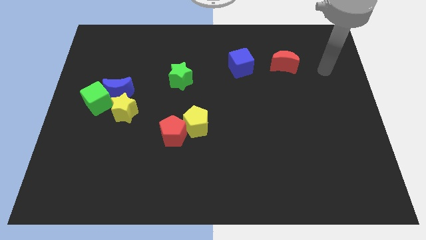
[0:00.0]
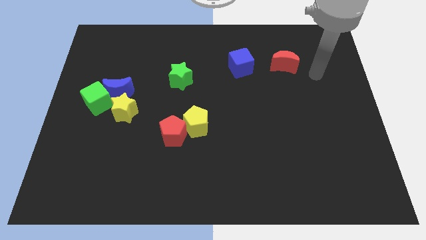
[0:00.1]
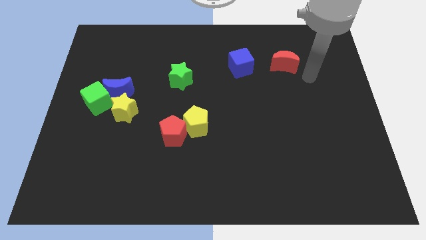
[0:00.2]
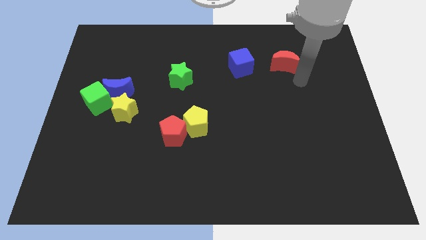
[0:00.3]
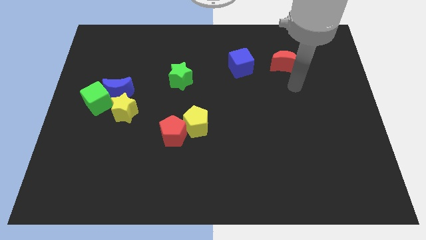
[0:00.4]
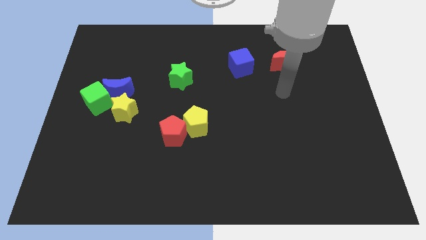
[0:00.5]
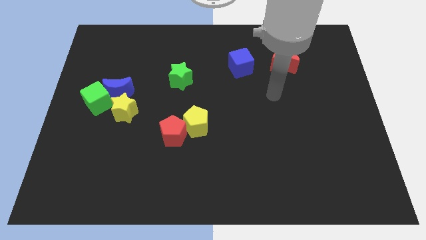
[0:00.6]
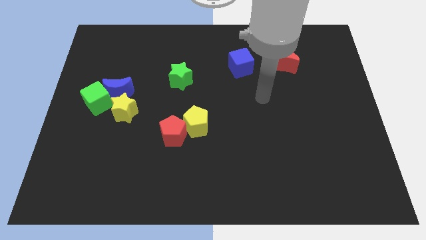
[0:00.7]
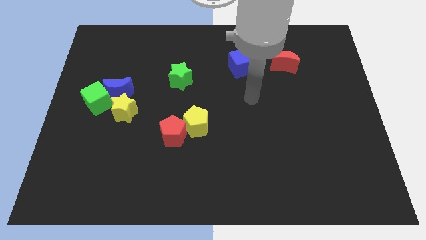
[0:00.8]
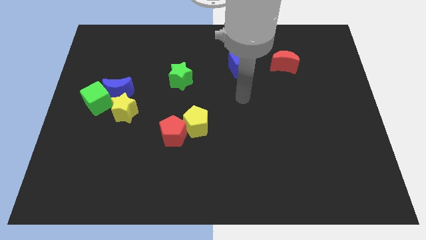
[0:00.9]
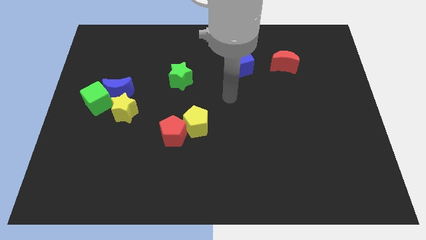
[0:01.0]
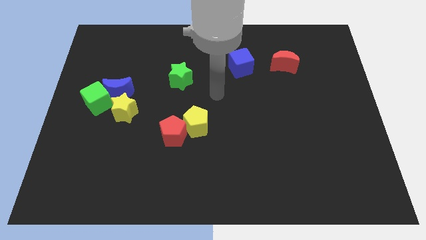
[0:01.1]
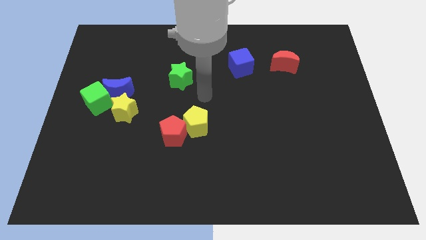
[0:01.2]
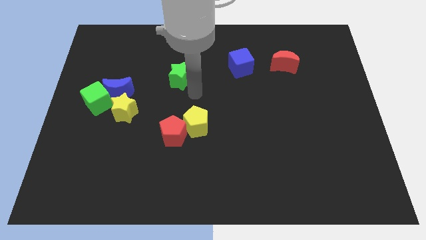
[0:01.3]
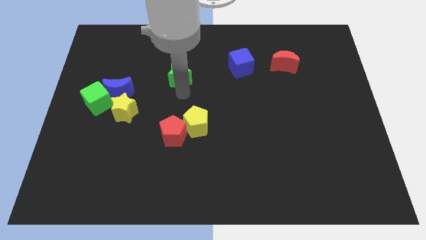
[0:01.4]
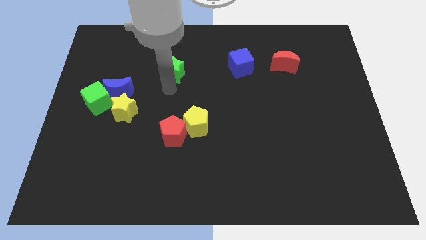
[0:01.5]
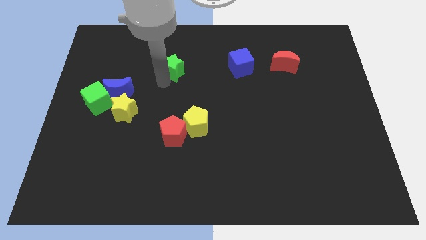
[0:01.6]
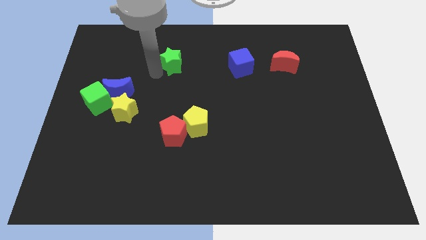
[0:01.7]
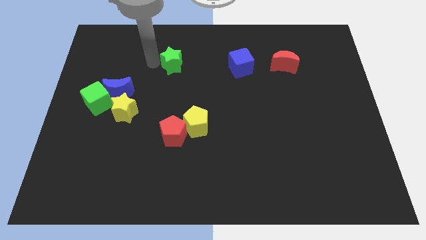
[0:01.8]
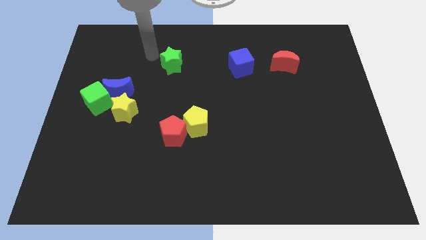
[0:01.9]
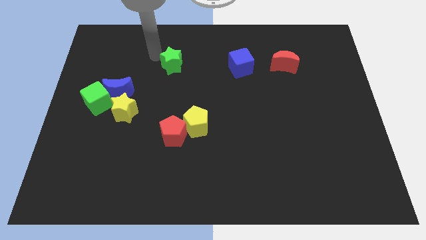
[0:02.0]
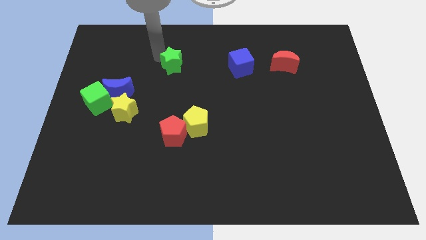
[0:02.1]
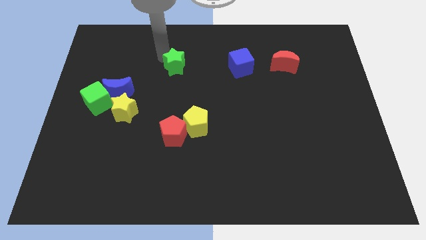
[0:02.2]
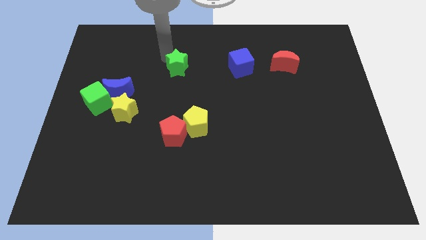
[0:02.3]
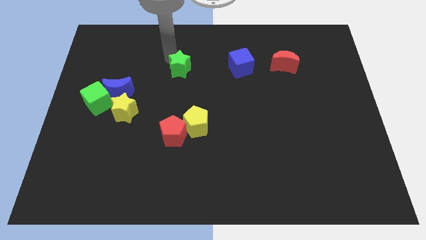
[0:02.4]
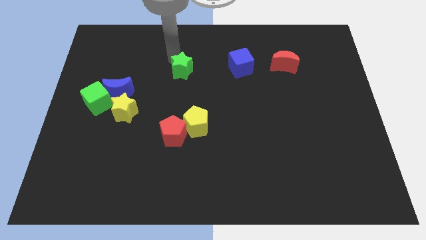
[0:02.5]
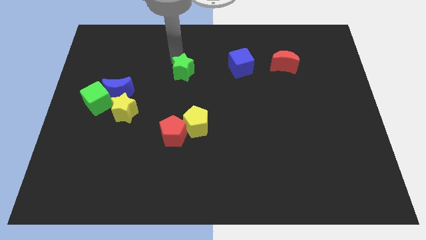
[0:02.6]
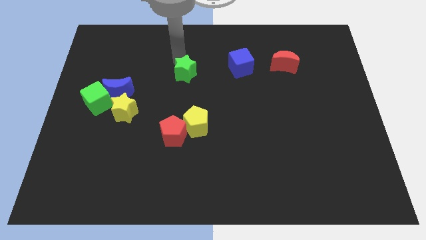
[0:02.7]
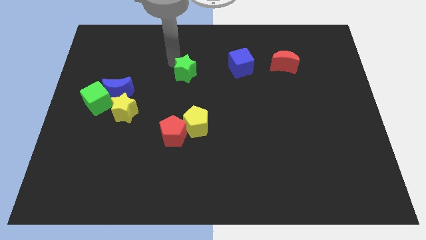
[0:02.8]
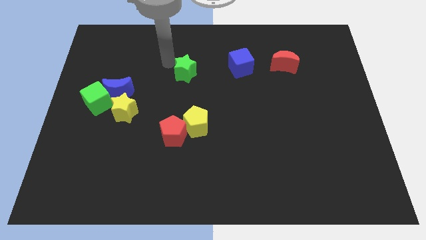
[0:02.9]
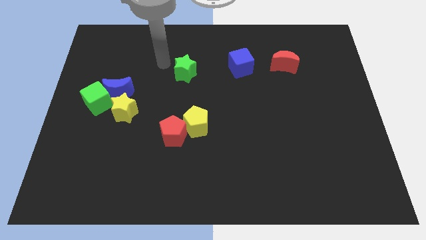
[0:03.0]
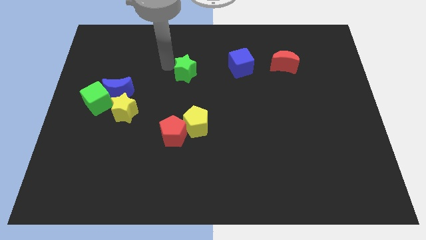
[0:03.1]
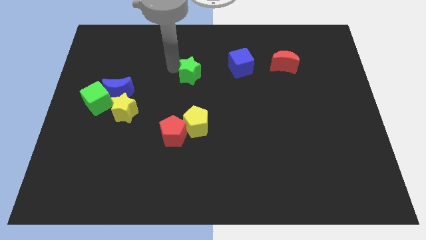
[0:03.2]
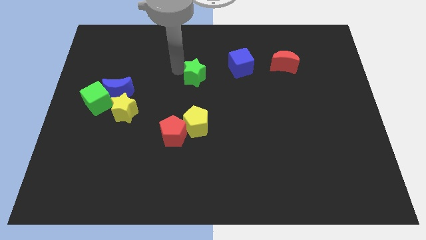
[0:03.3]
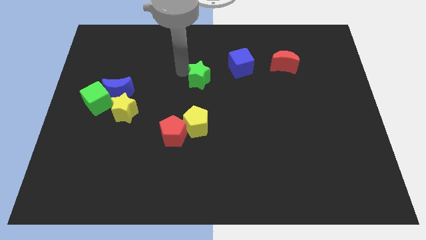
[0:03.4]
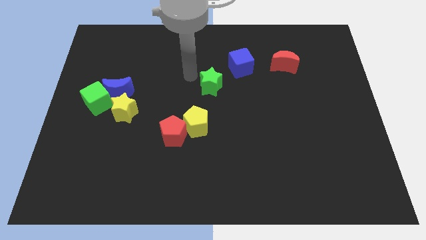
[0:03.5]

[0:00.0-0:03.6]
move the green star right a little

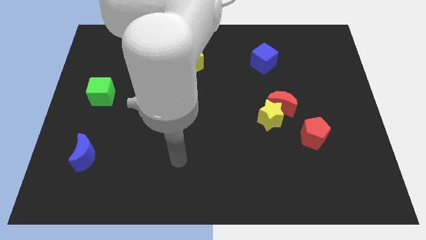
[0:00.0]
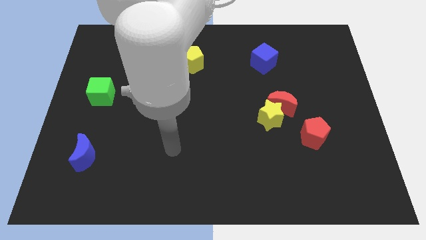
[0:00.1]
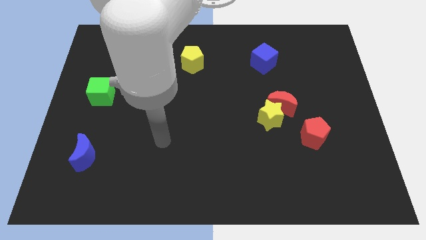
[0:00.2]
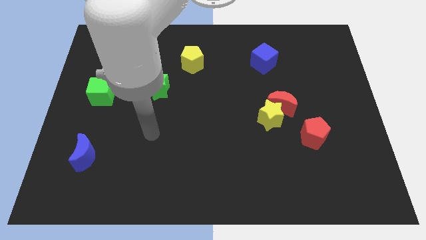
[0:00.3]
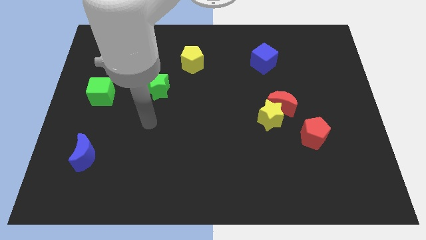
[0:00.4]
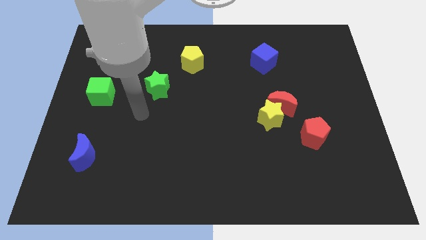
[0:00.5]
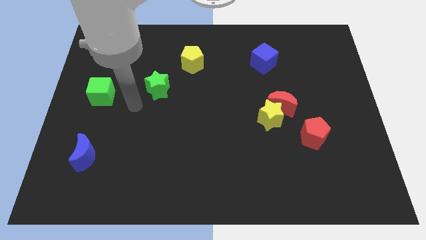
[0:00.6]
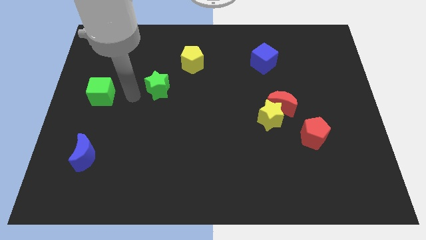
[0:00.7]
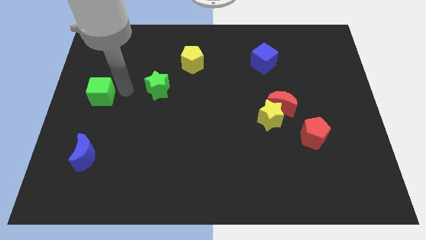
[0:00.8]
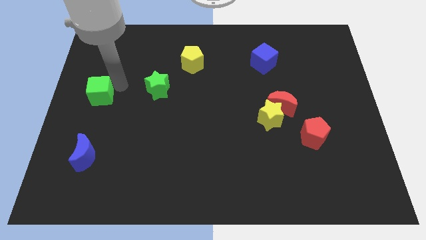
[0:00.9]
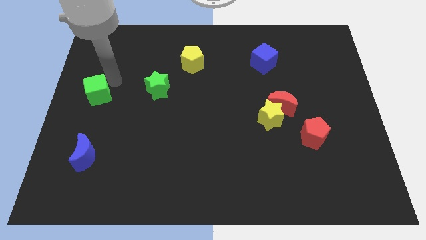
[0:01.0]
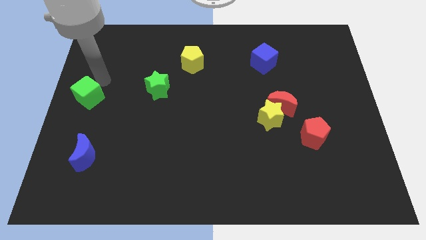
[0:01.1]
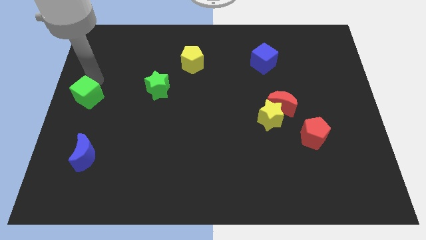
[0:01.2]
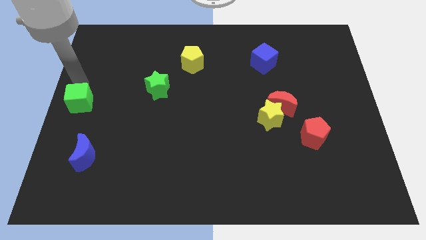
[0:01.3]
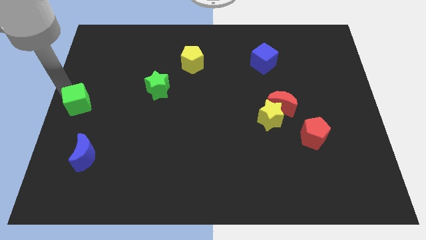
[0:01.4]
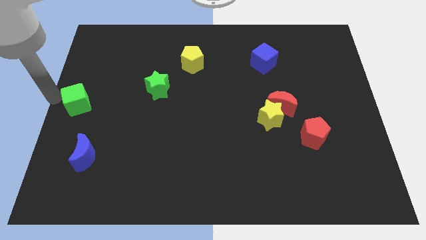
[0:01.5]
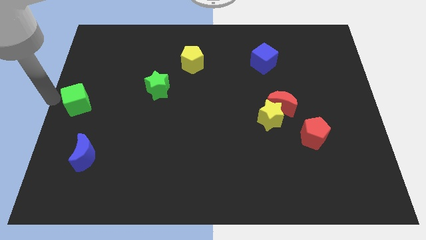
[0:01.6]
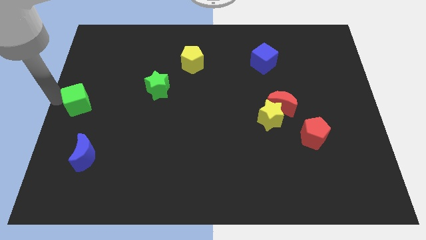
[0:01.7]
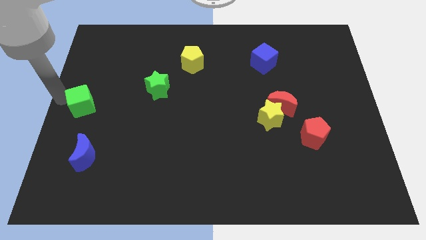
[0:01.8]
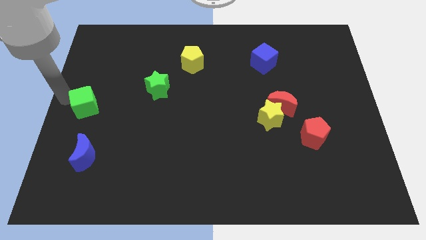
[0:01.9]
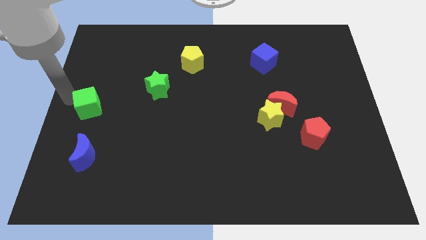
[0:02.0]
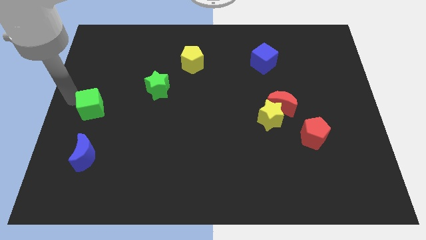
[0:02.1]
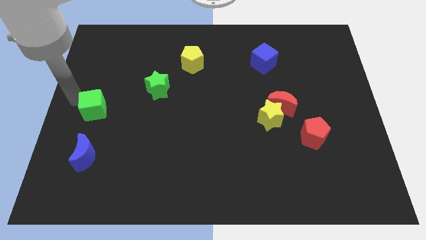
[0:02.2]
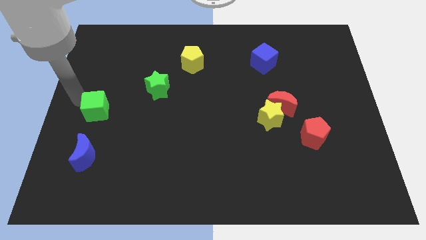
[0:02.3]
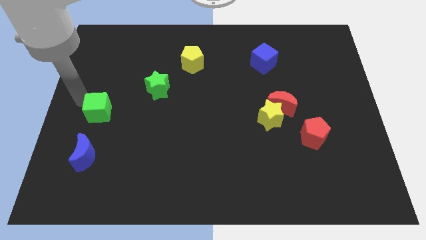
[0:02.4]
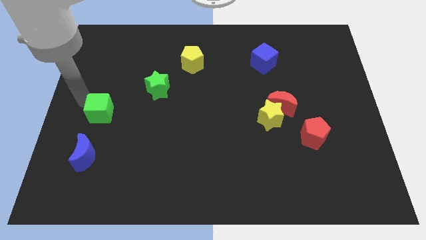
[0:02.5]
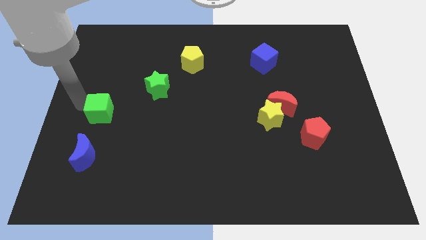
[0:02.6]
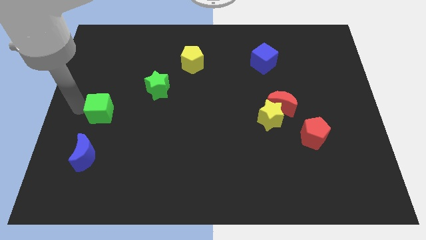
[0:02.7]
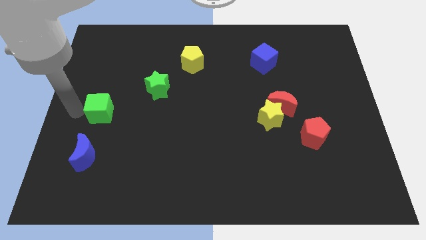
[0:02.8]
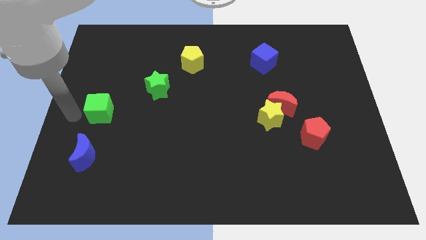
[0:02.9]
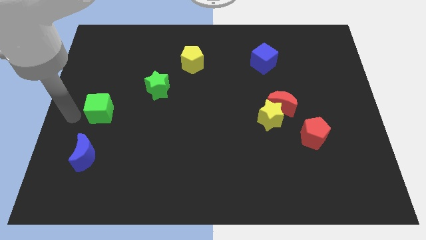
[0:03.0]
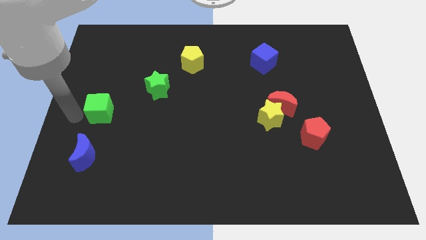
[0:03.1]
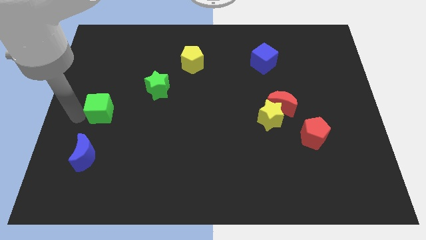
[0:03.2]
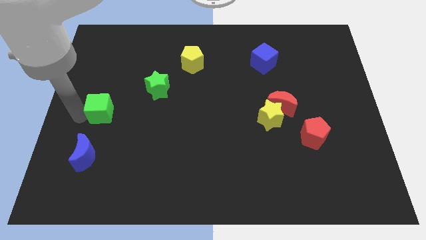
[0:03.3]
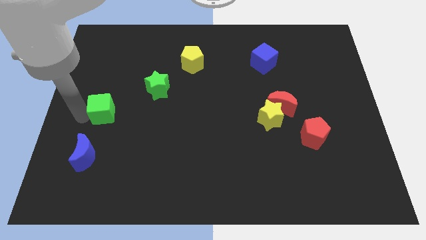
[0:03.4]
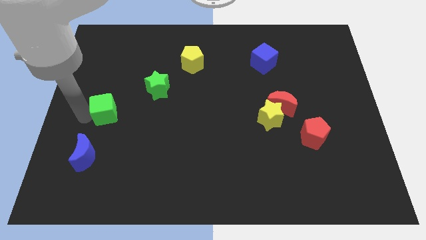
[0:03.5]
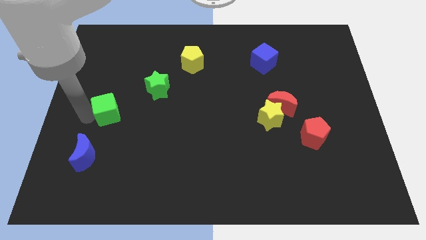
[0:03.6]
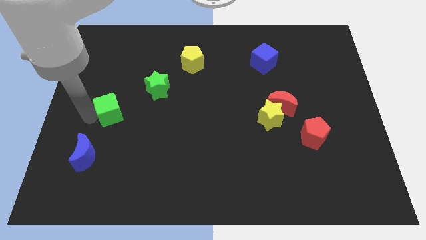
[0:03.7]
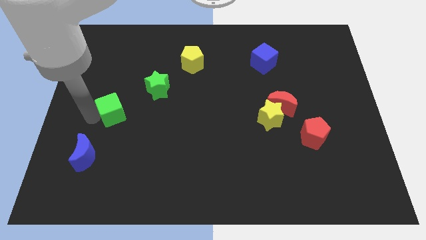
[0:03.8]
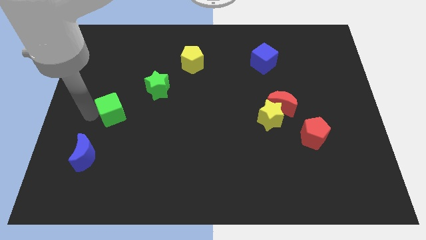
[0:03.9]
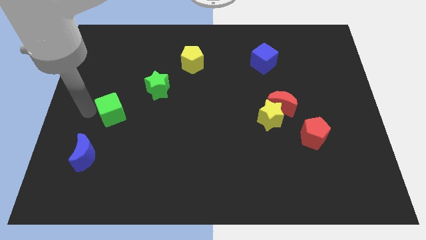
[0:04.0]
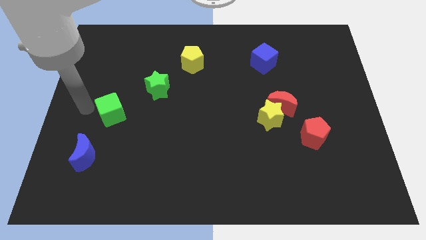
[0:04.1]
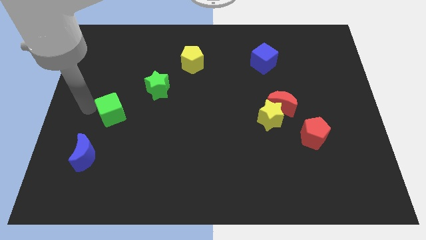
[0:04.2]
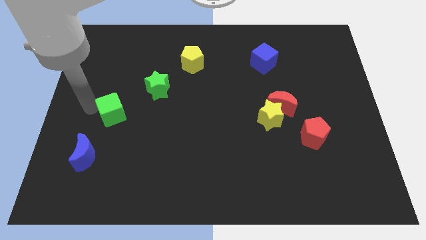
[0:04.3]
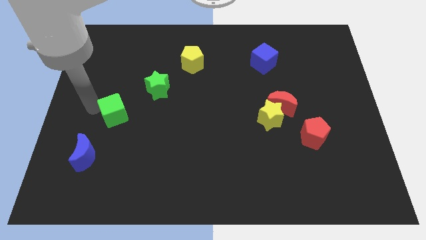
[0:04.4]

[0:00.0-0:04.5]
push the green cube down and then right slightly
